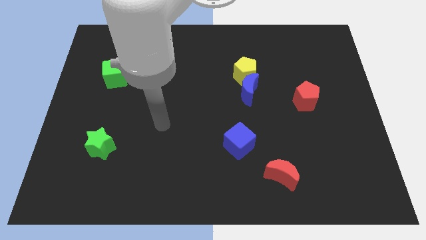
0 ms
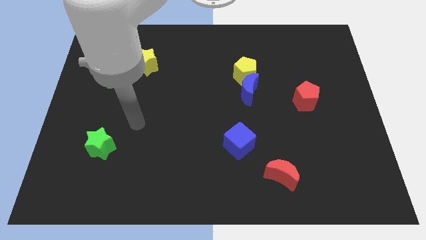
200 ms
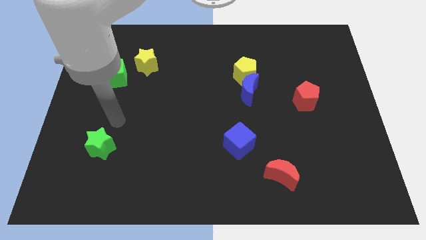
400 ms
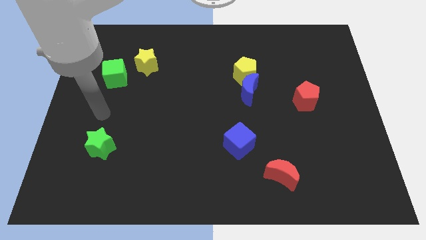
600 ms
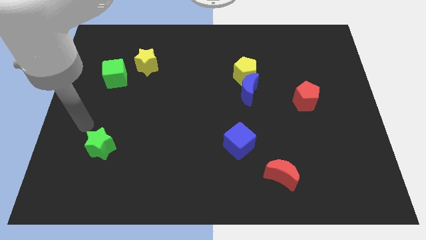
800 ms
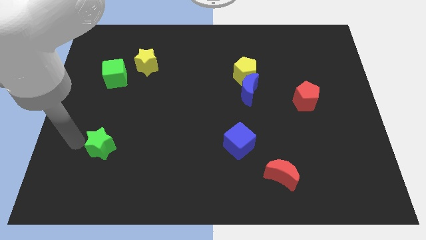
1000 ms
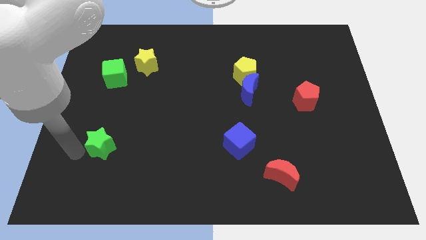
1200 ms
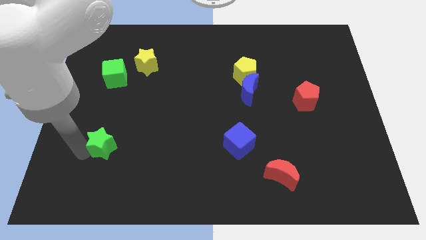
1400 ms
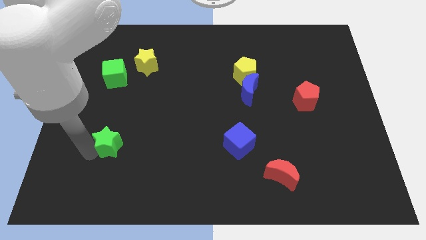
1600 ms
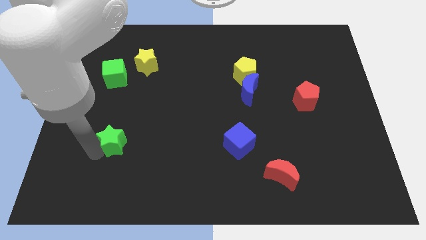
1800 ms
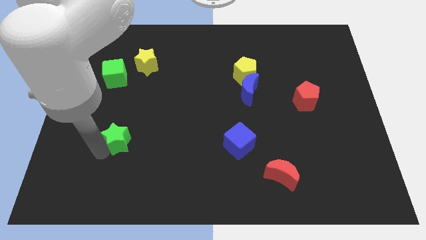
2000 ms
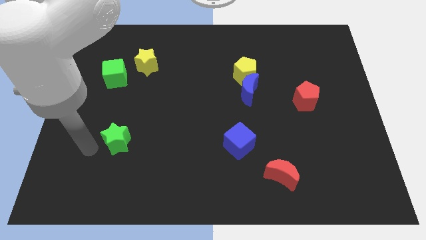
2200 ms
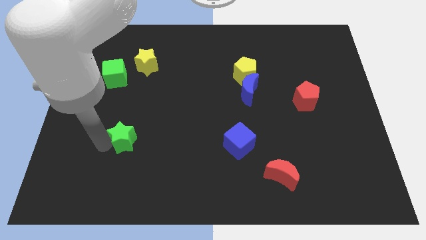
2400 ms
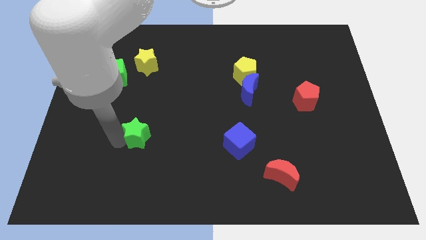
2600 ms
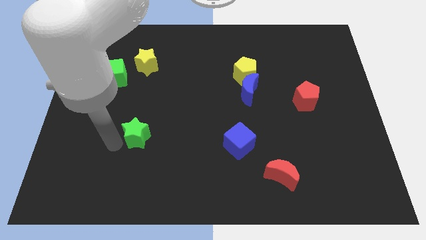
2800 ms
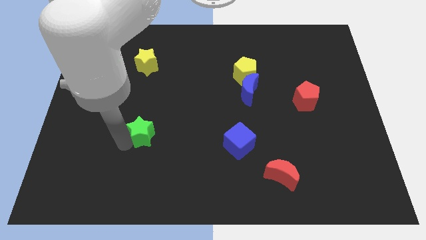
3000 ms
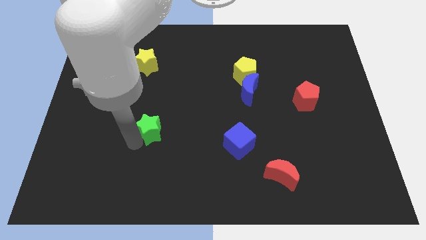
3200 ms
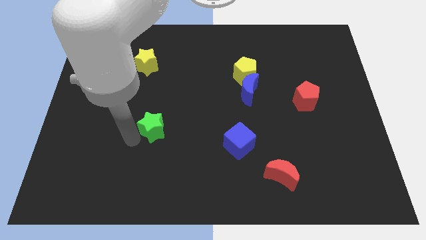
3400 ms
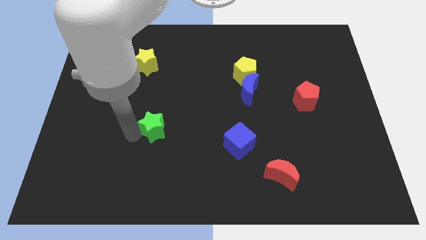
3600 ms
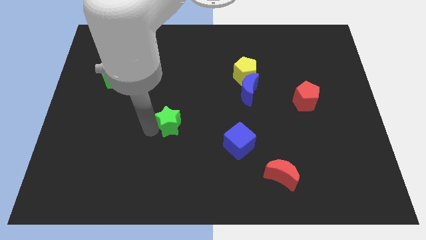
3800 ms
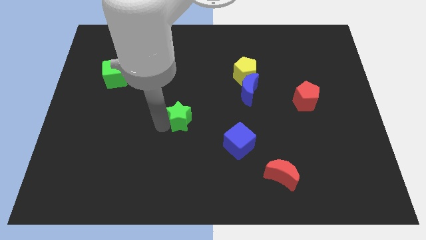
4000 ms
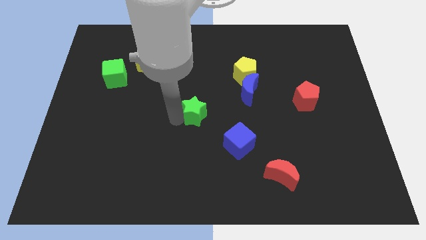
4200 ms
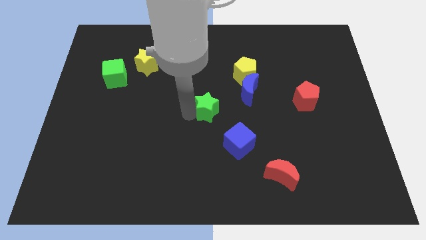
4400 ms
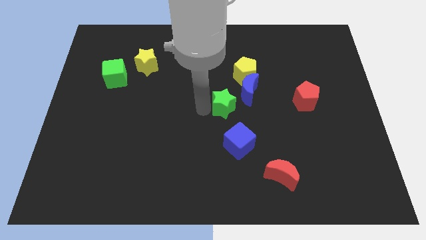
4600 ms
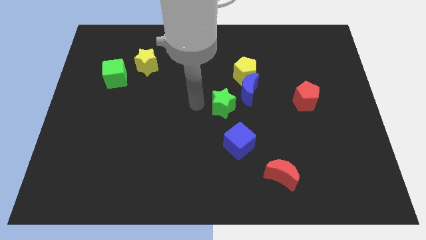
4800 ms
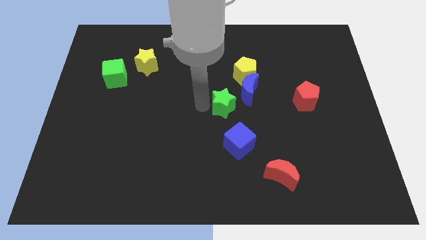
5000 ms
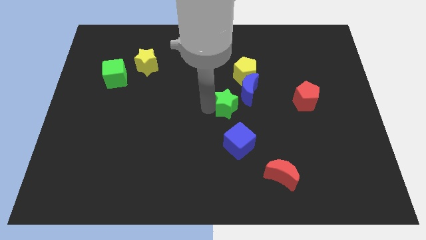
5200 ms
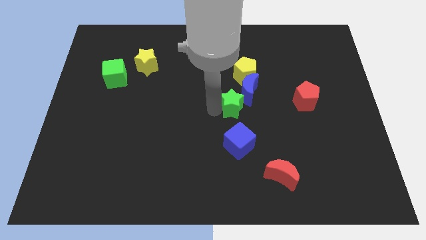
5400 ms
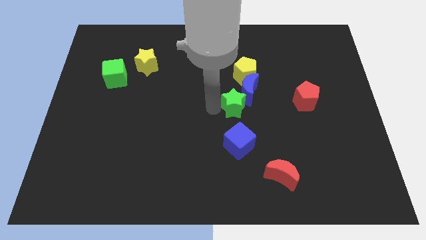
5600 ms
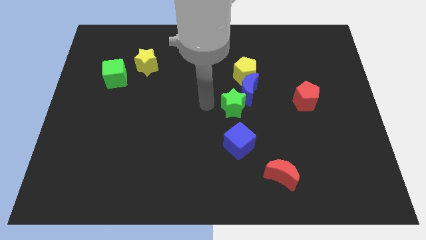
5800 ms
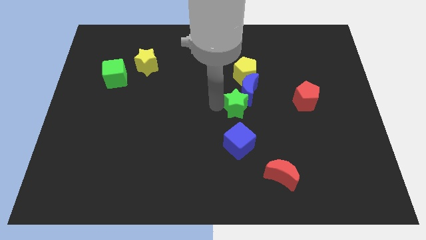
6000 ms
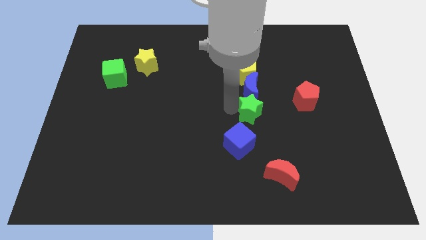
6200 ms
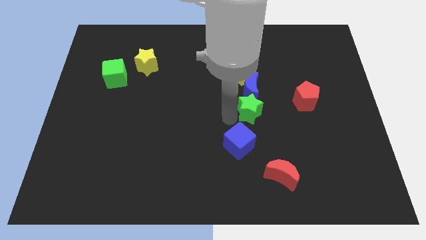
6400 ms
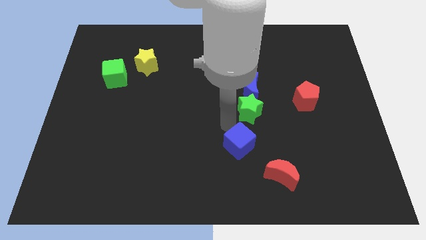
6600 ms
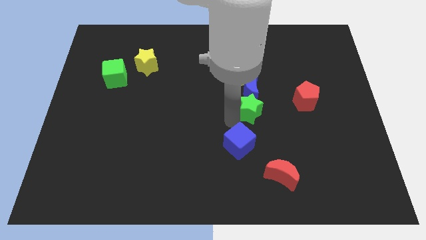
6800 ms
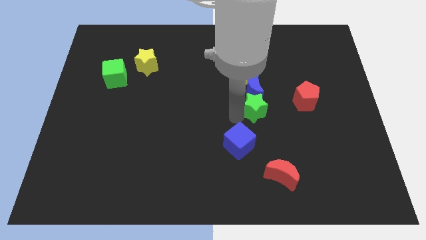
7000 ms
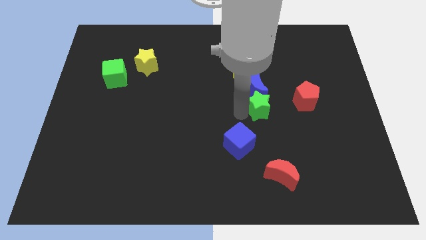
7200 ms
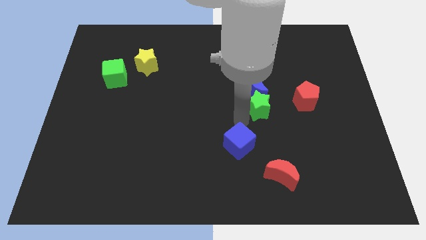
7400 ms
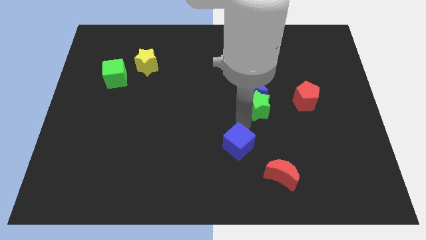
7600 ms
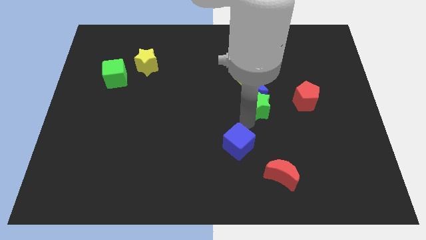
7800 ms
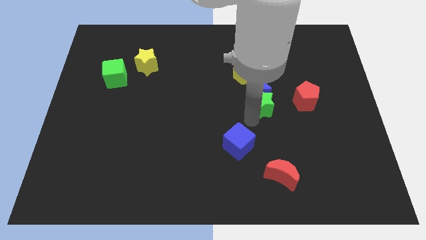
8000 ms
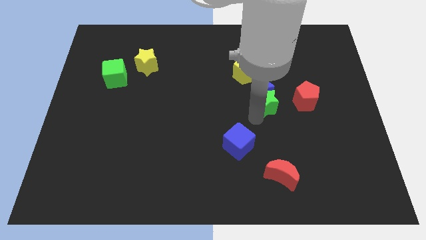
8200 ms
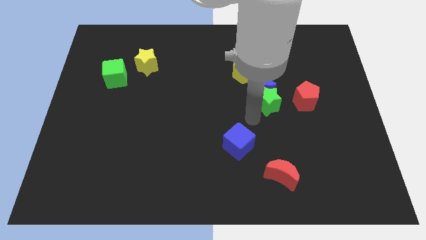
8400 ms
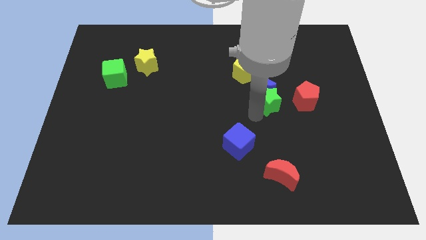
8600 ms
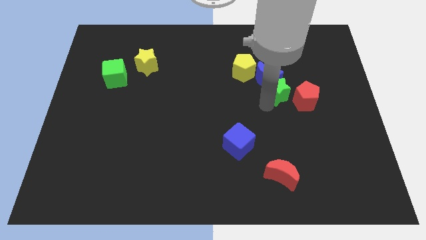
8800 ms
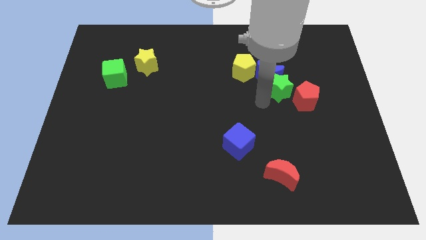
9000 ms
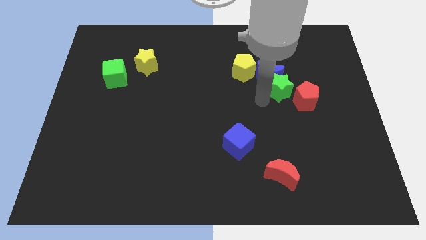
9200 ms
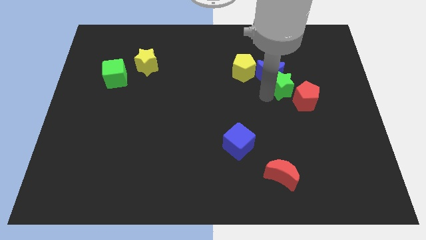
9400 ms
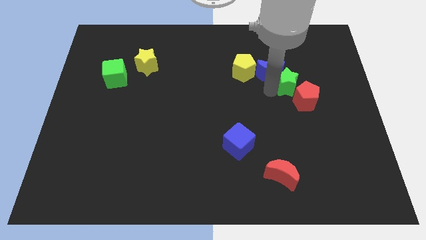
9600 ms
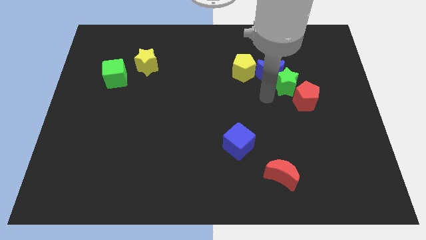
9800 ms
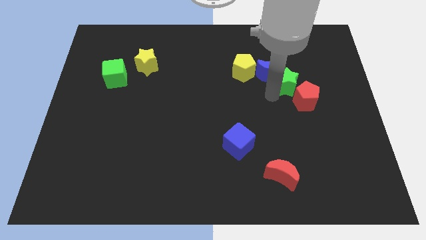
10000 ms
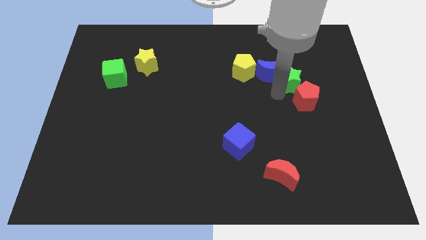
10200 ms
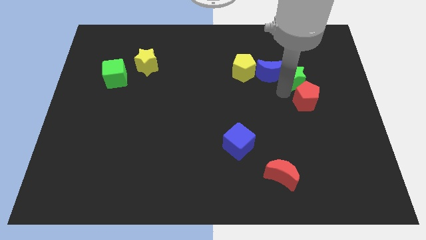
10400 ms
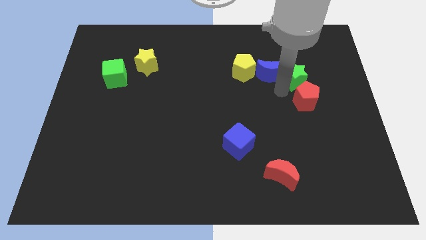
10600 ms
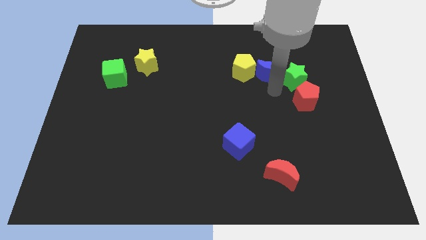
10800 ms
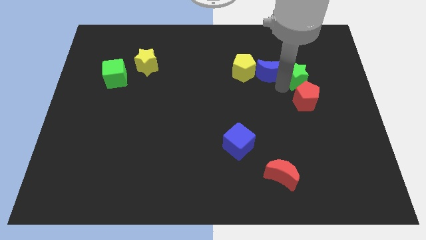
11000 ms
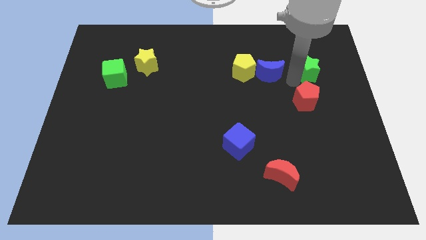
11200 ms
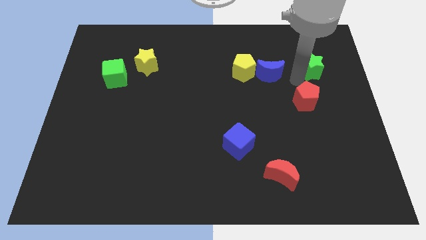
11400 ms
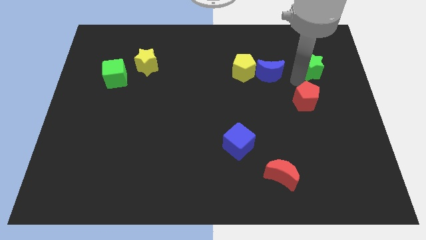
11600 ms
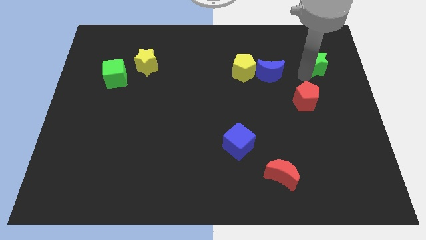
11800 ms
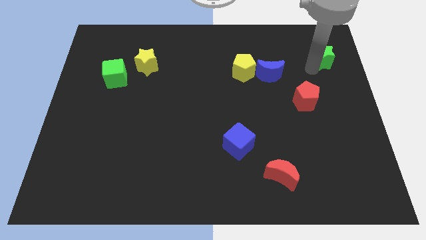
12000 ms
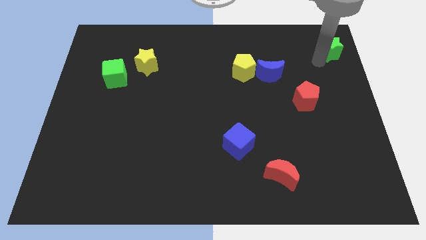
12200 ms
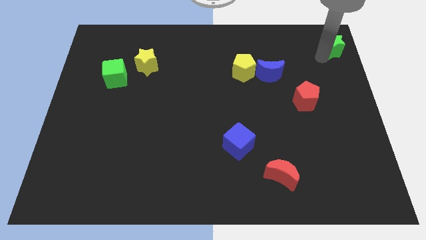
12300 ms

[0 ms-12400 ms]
put the green star to the top right
